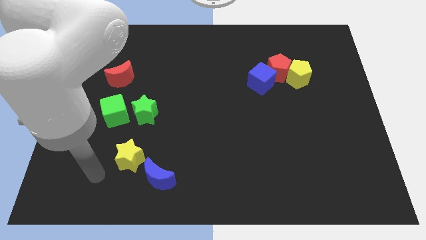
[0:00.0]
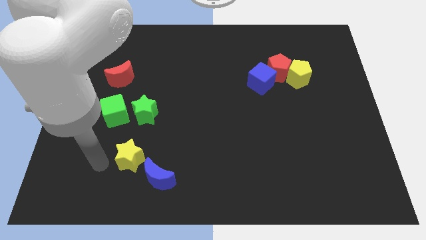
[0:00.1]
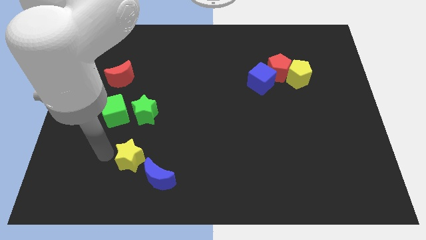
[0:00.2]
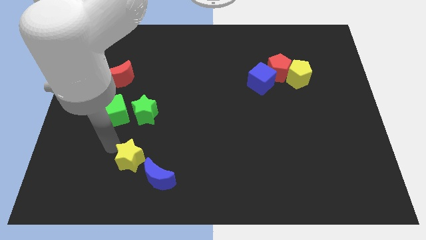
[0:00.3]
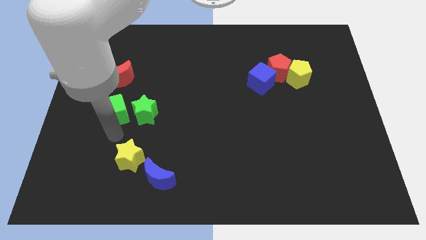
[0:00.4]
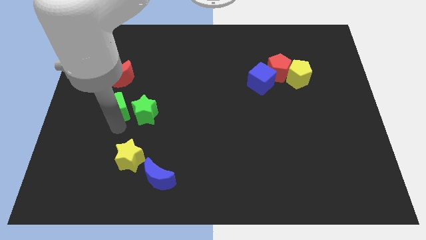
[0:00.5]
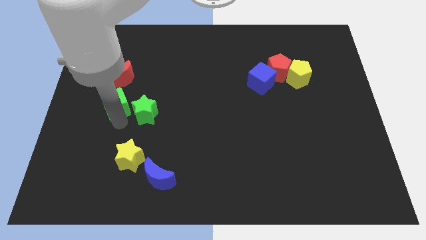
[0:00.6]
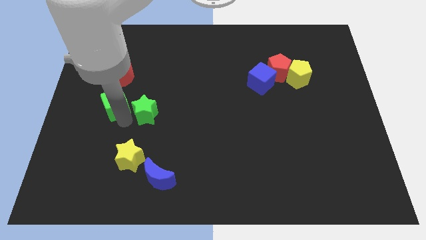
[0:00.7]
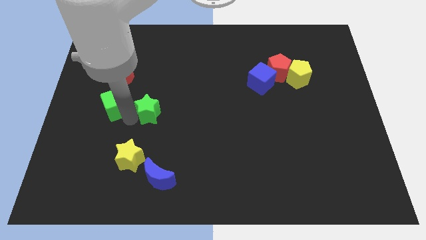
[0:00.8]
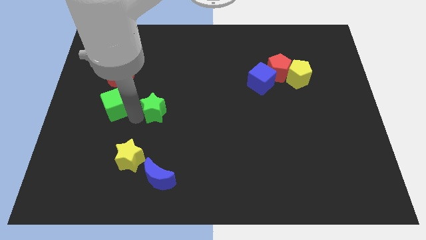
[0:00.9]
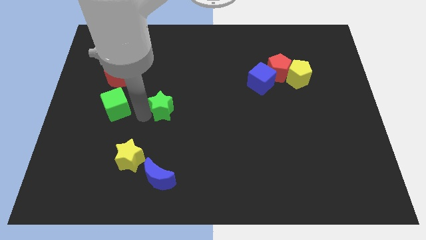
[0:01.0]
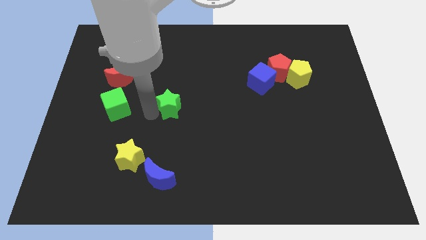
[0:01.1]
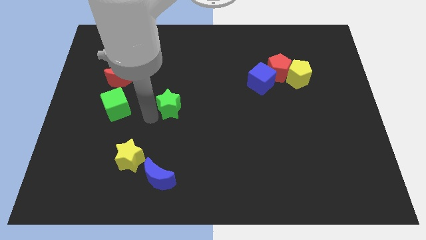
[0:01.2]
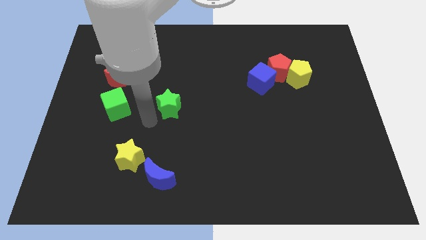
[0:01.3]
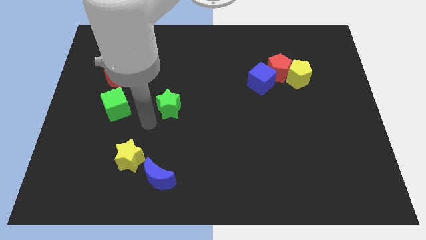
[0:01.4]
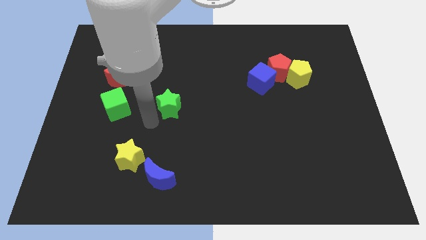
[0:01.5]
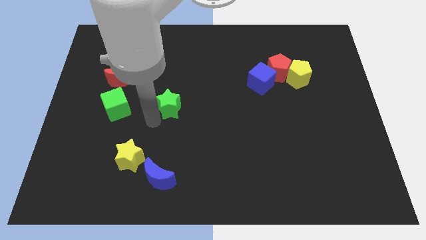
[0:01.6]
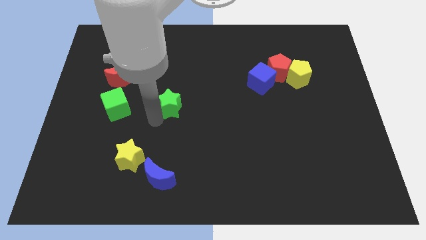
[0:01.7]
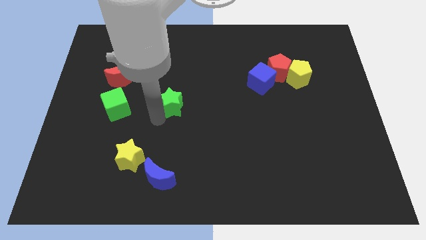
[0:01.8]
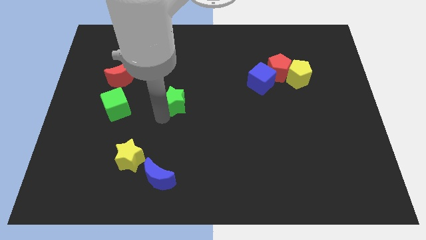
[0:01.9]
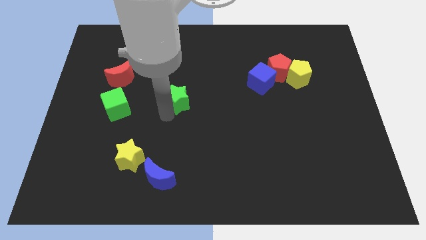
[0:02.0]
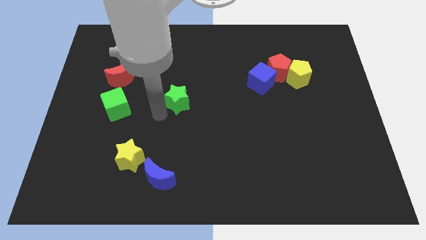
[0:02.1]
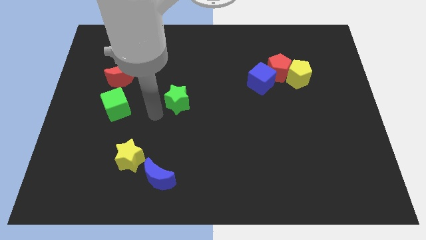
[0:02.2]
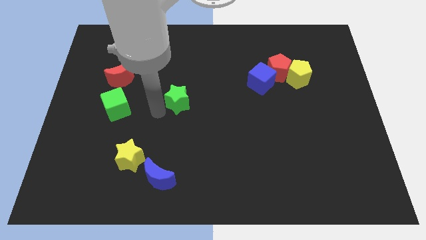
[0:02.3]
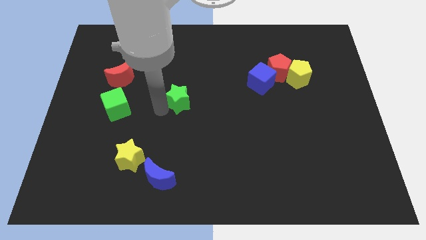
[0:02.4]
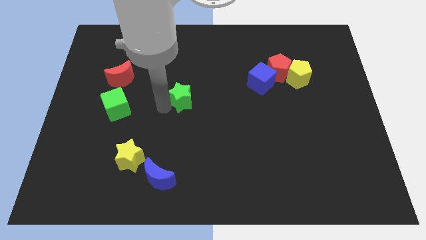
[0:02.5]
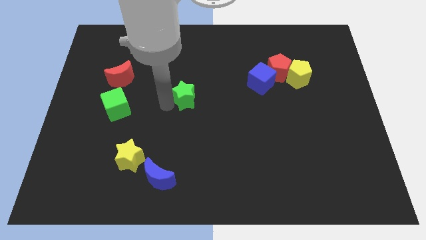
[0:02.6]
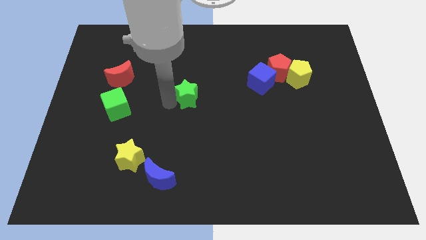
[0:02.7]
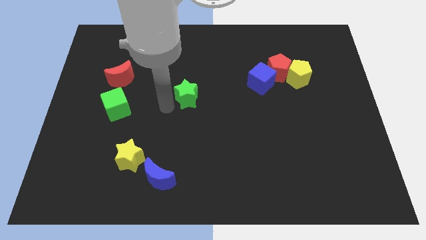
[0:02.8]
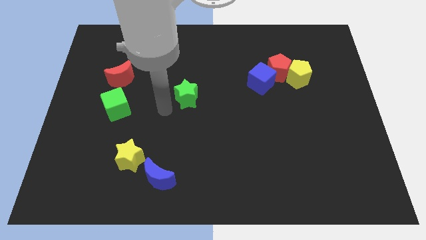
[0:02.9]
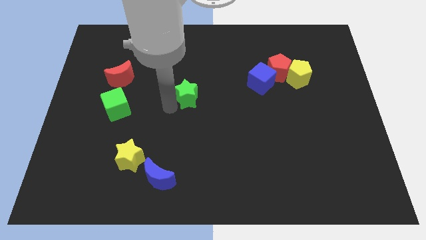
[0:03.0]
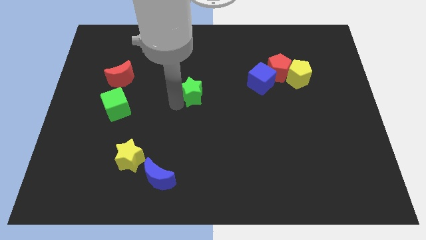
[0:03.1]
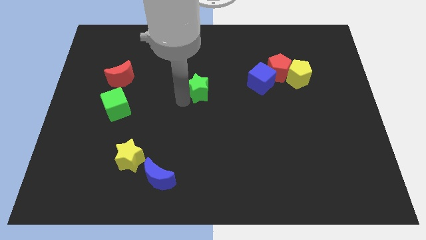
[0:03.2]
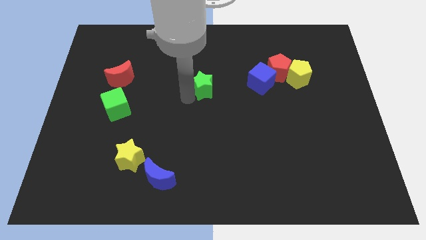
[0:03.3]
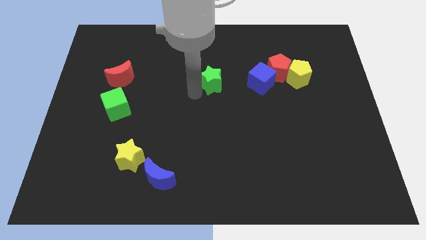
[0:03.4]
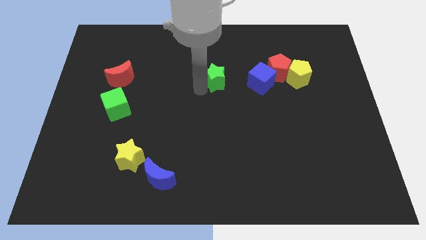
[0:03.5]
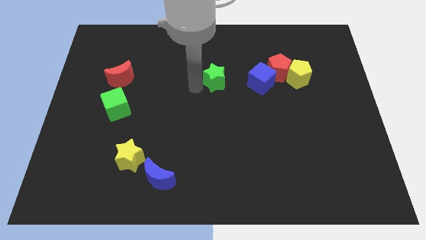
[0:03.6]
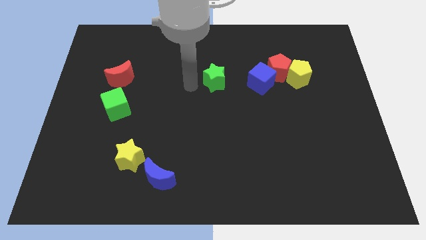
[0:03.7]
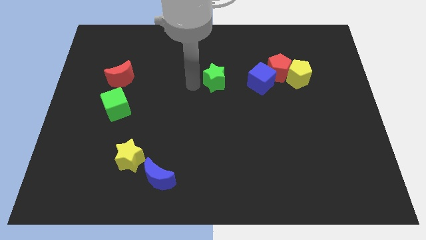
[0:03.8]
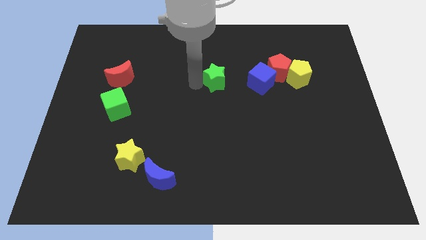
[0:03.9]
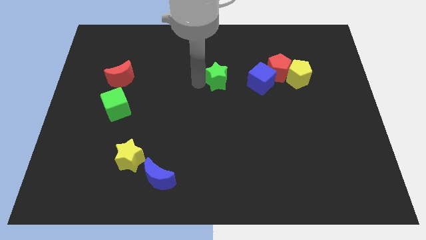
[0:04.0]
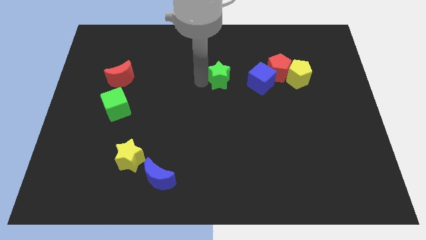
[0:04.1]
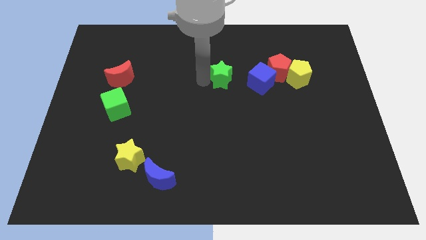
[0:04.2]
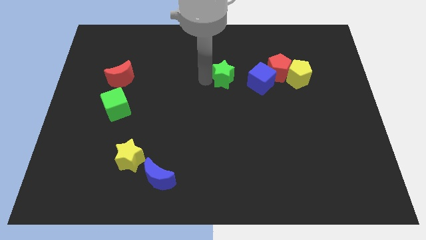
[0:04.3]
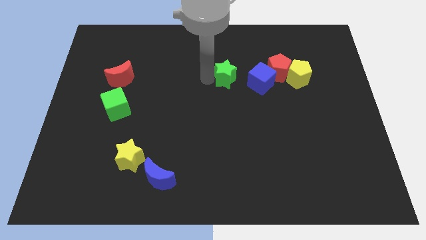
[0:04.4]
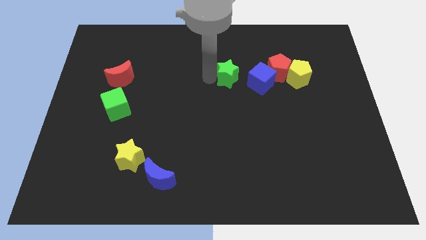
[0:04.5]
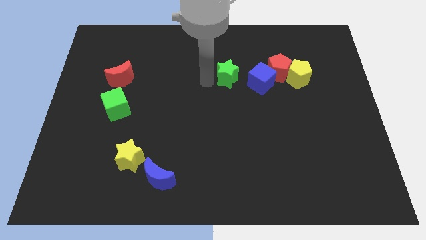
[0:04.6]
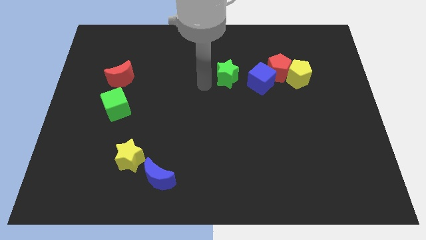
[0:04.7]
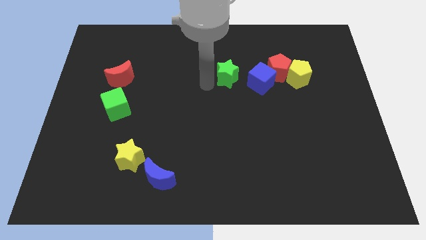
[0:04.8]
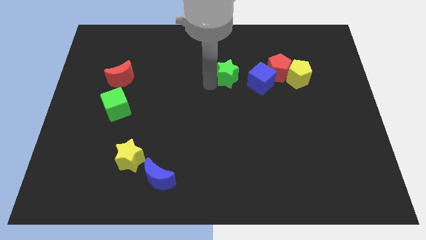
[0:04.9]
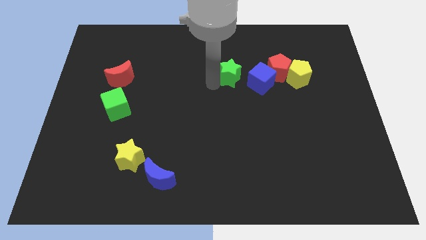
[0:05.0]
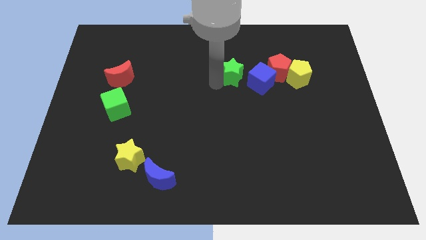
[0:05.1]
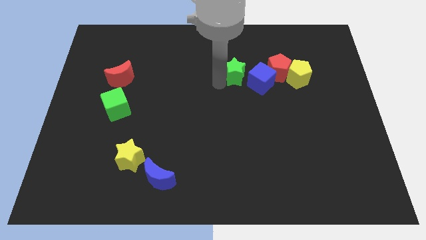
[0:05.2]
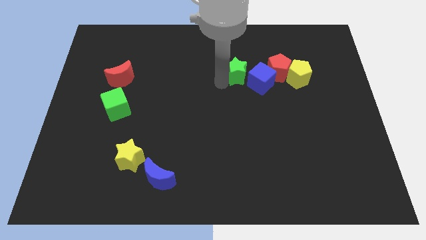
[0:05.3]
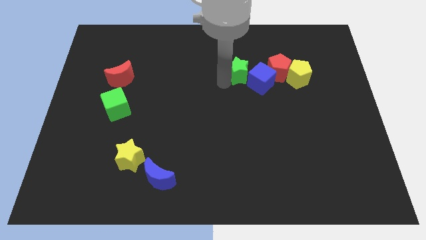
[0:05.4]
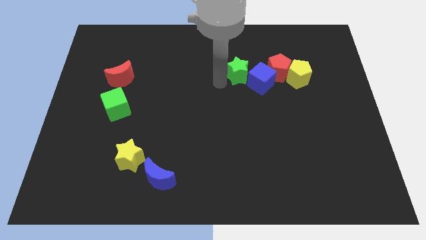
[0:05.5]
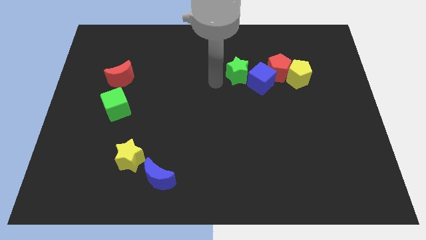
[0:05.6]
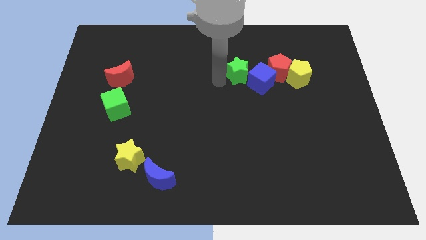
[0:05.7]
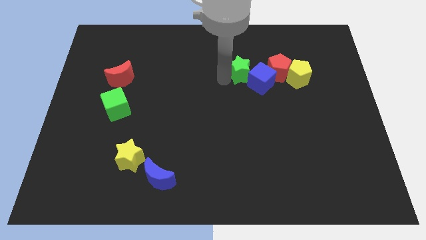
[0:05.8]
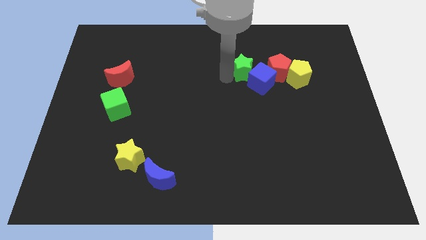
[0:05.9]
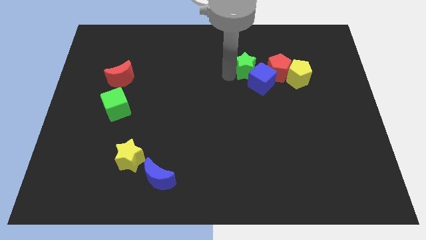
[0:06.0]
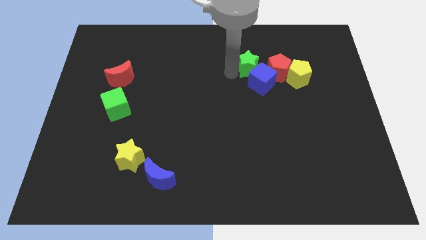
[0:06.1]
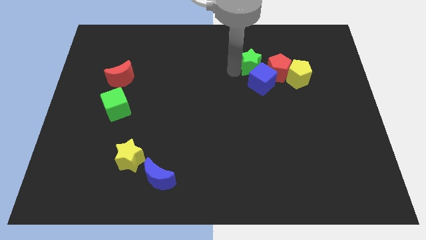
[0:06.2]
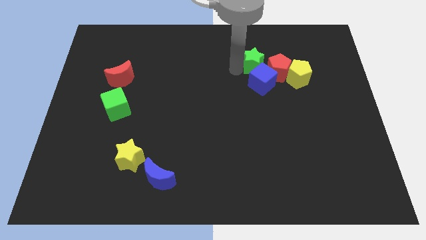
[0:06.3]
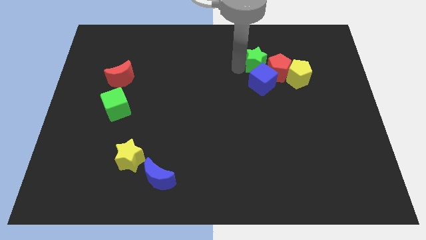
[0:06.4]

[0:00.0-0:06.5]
push the green star towards the red pentagon
